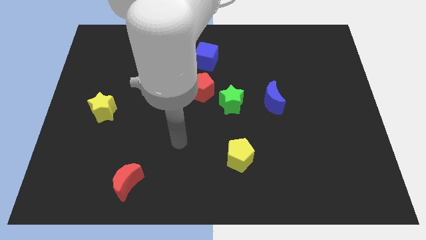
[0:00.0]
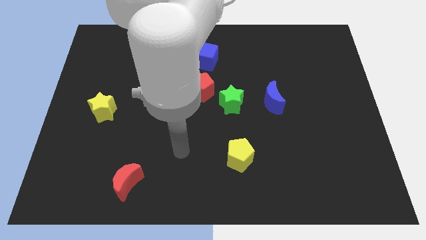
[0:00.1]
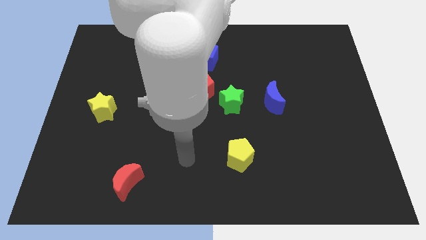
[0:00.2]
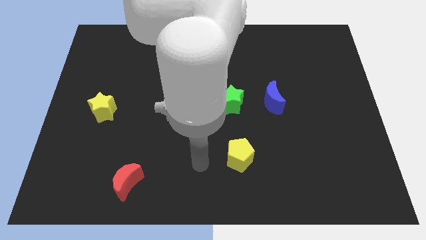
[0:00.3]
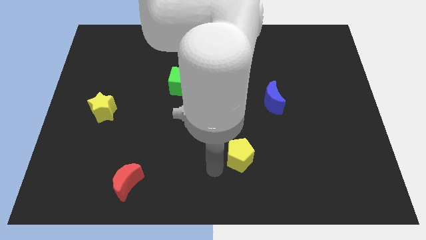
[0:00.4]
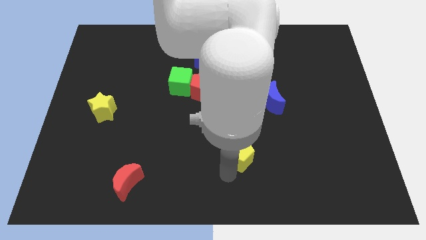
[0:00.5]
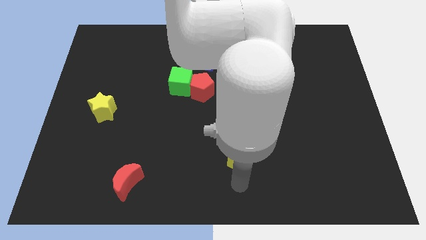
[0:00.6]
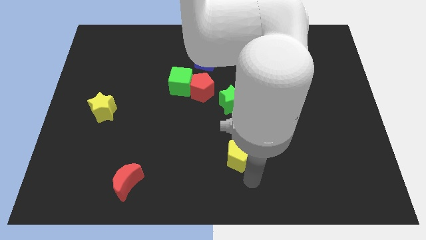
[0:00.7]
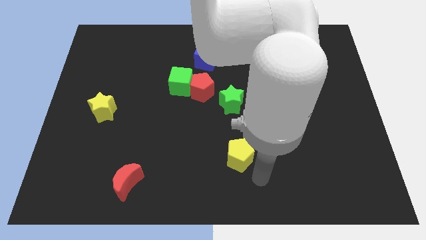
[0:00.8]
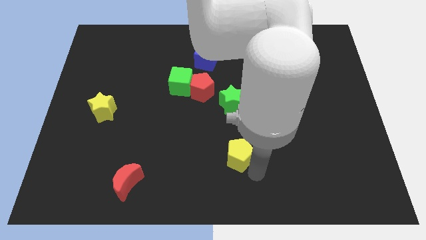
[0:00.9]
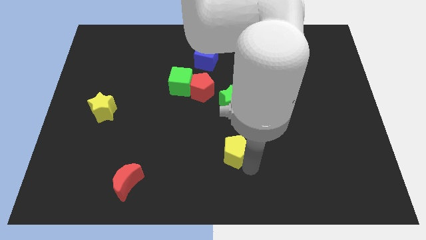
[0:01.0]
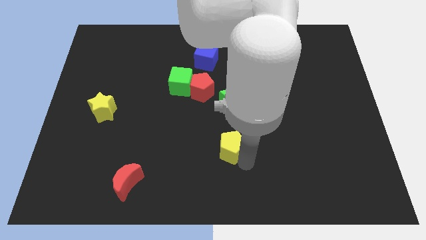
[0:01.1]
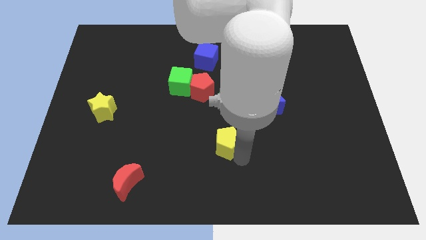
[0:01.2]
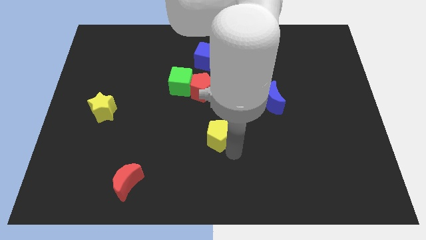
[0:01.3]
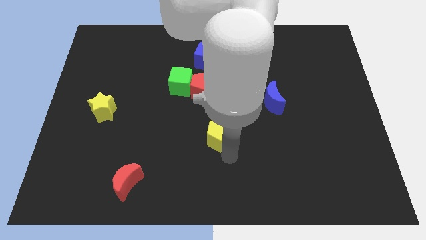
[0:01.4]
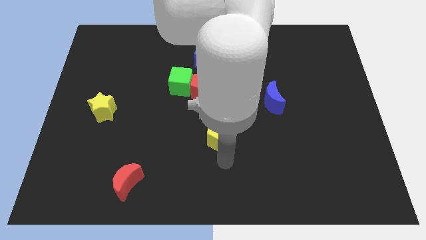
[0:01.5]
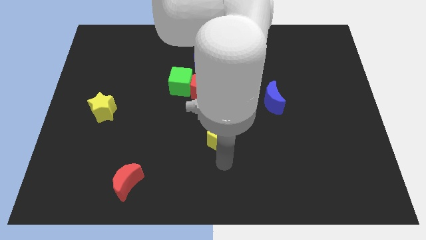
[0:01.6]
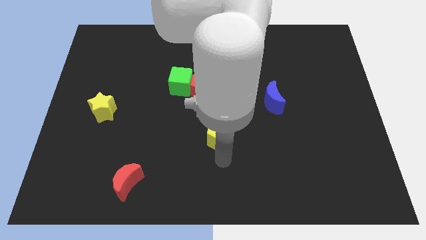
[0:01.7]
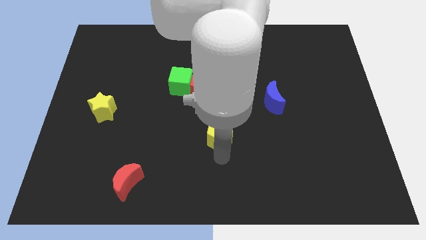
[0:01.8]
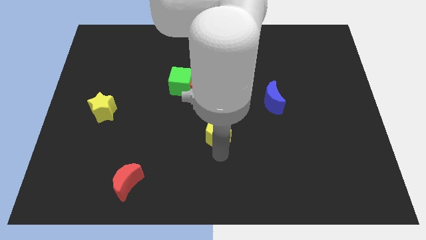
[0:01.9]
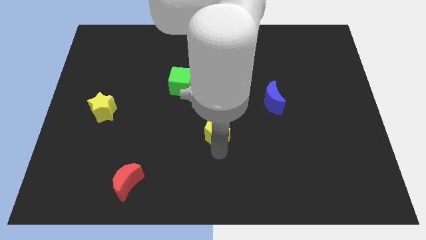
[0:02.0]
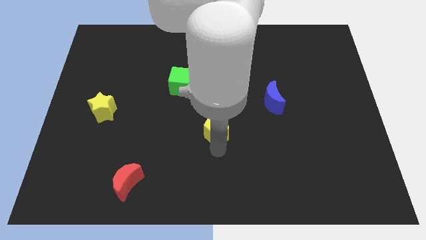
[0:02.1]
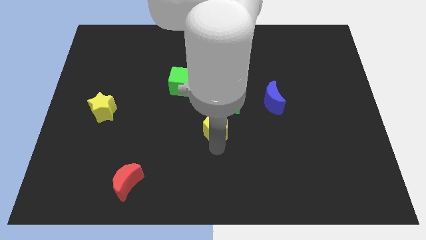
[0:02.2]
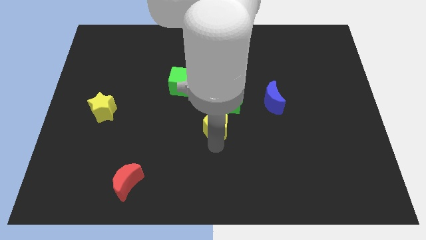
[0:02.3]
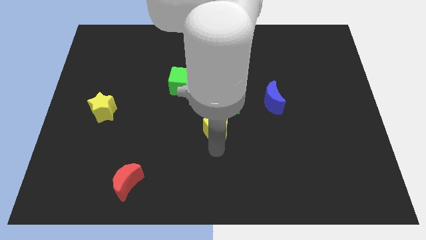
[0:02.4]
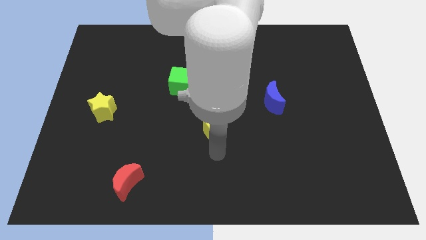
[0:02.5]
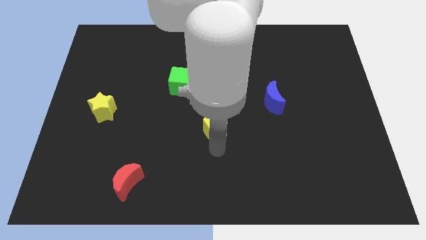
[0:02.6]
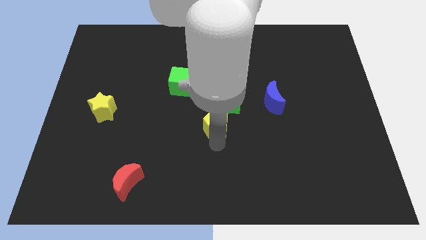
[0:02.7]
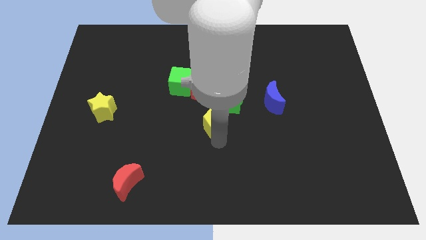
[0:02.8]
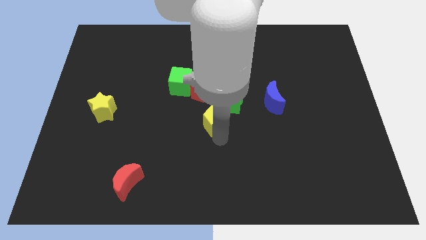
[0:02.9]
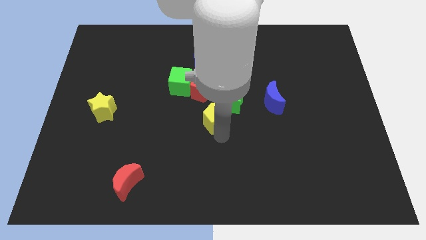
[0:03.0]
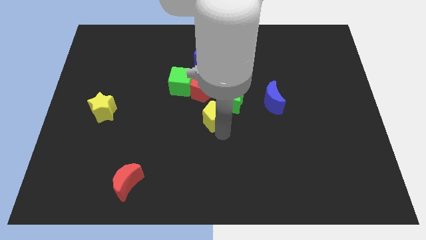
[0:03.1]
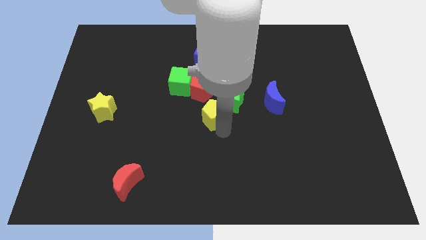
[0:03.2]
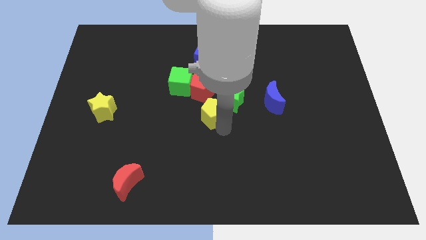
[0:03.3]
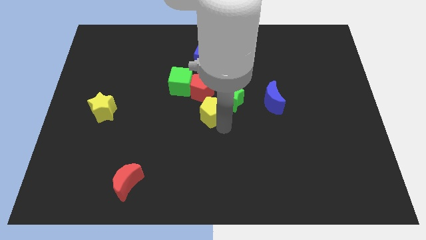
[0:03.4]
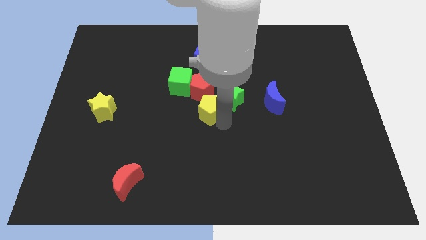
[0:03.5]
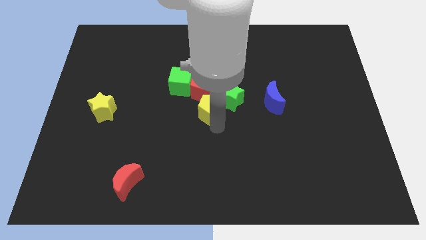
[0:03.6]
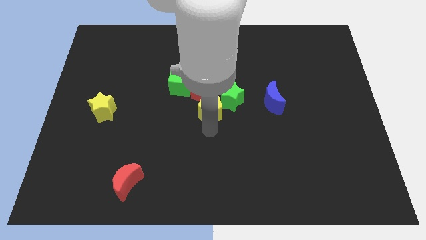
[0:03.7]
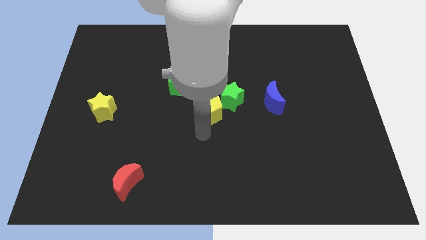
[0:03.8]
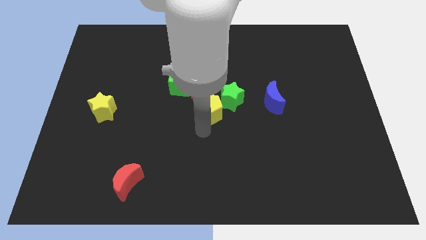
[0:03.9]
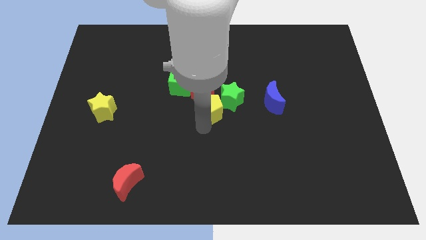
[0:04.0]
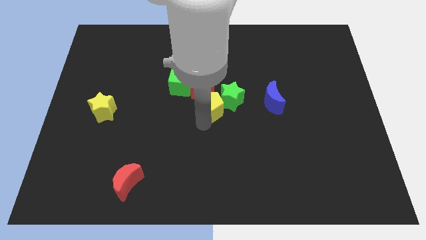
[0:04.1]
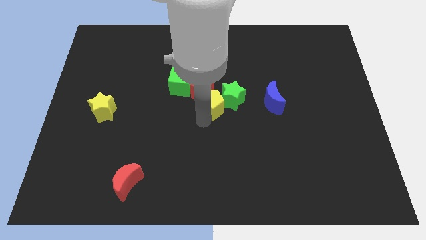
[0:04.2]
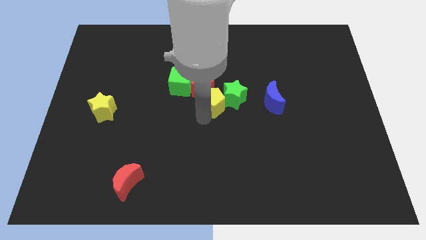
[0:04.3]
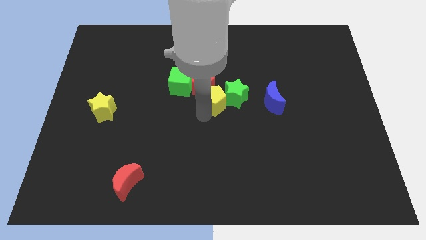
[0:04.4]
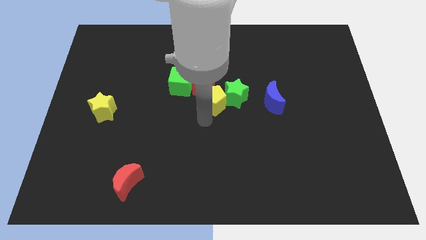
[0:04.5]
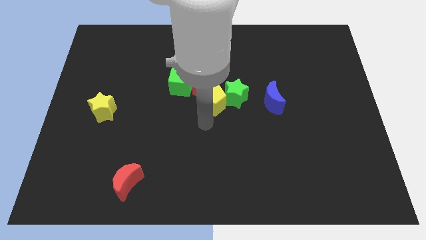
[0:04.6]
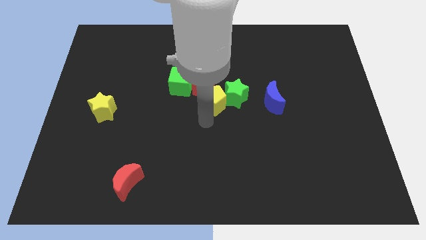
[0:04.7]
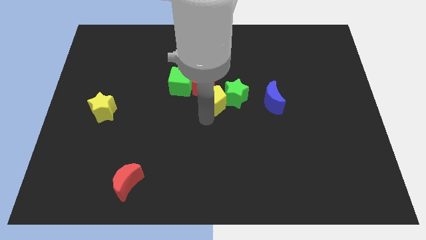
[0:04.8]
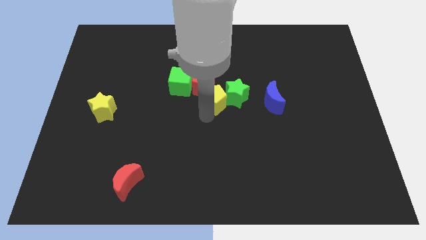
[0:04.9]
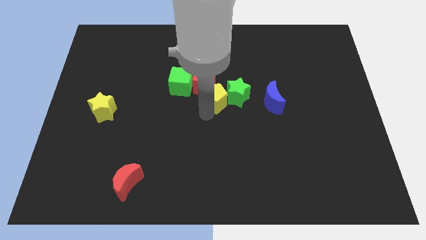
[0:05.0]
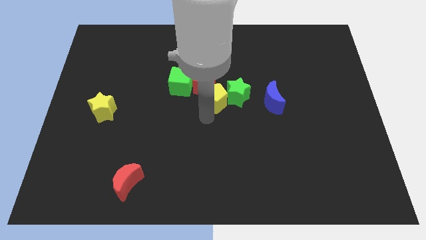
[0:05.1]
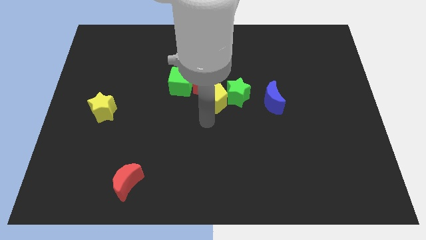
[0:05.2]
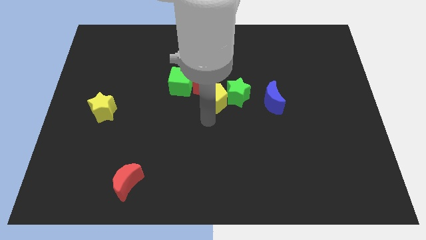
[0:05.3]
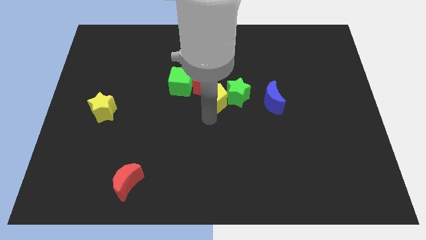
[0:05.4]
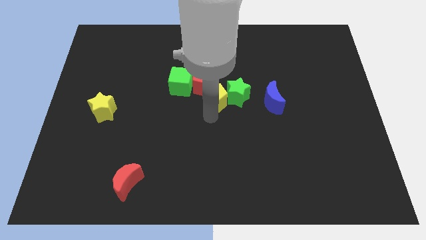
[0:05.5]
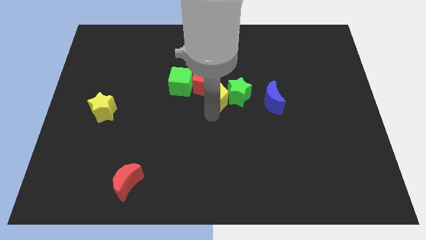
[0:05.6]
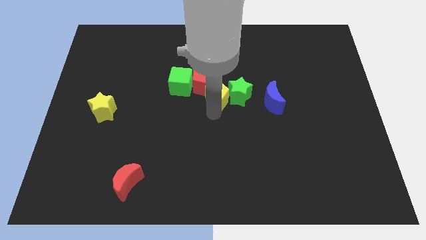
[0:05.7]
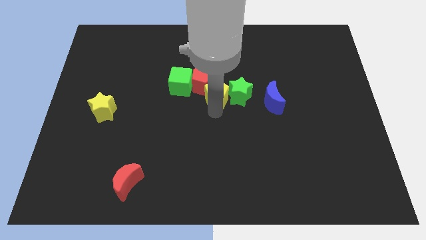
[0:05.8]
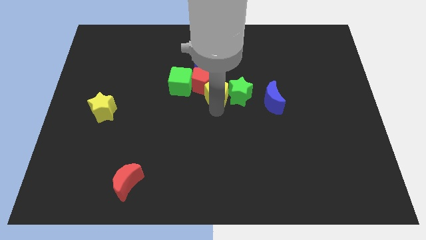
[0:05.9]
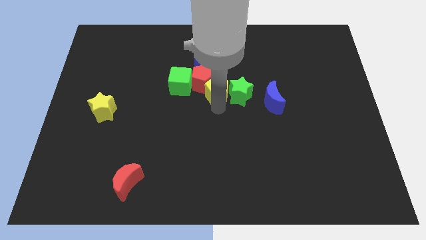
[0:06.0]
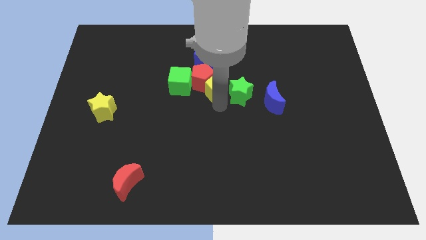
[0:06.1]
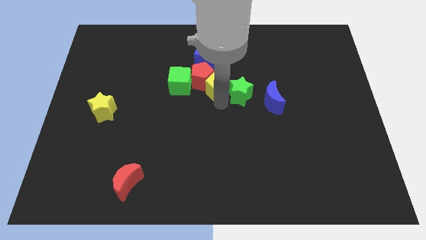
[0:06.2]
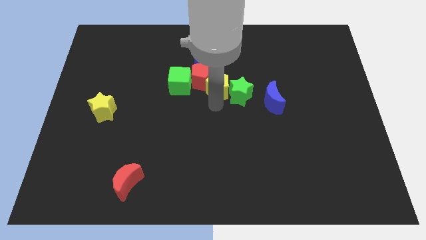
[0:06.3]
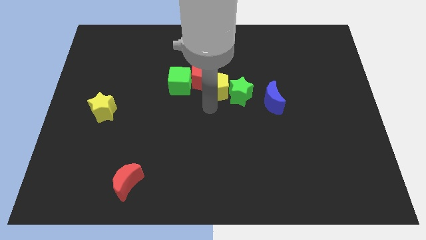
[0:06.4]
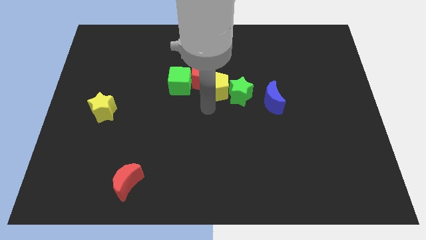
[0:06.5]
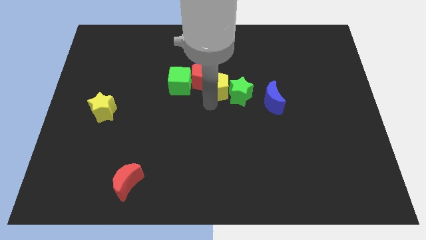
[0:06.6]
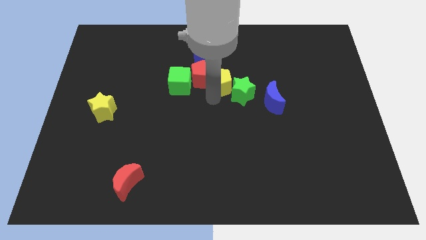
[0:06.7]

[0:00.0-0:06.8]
slide the yellow pentagon to the bottom right of the blue cube
